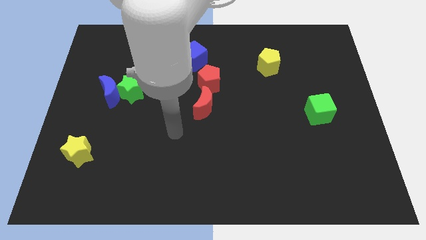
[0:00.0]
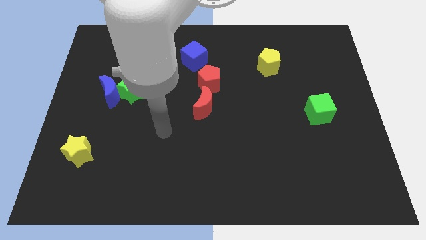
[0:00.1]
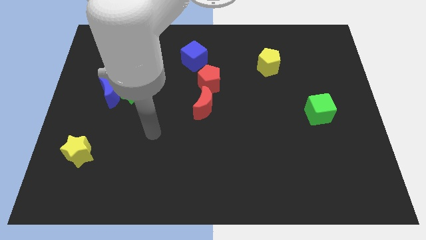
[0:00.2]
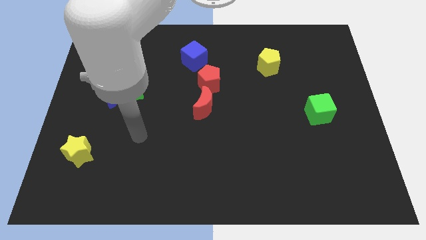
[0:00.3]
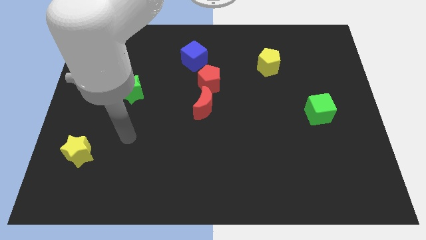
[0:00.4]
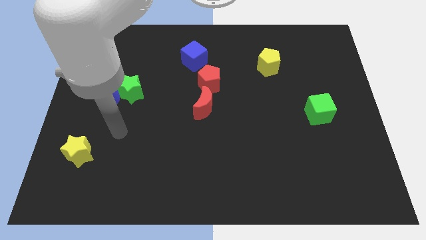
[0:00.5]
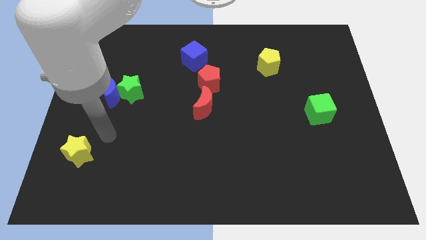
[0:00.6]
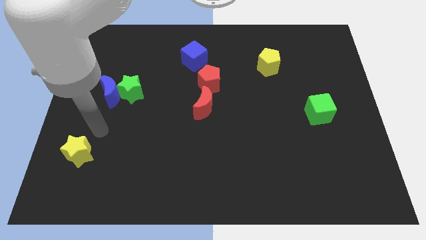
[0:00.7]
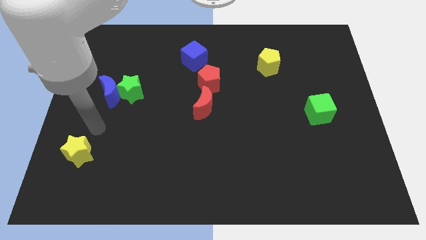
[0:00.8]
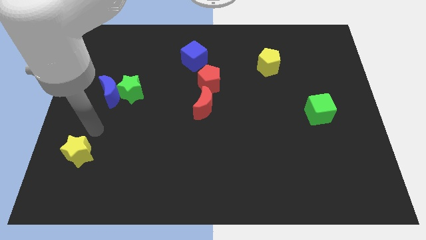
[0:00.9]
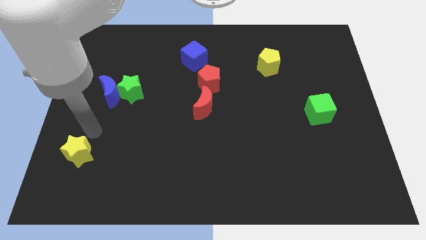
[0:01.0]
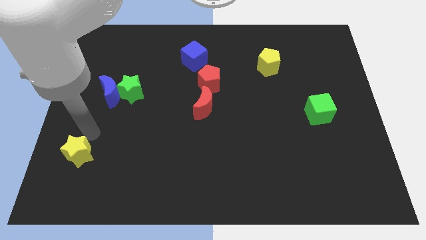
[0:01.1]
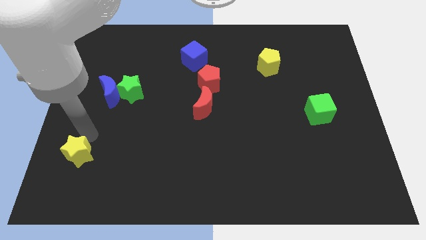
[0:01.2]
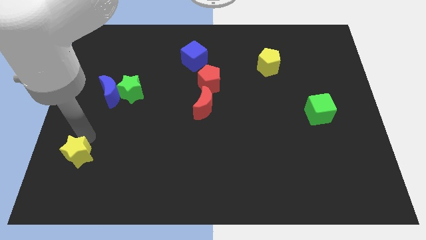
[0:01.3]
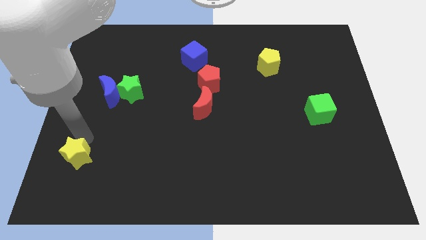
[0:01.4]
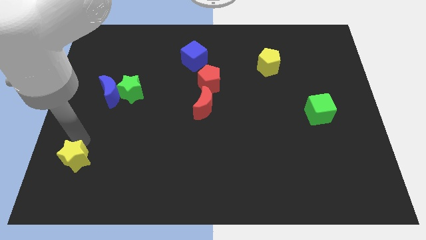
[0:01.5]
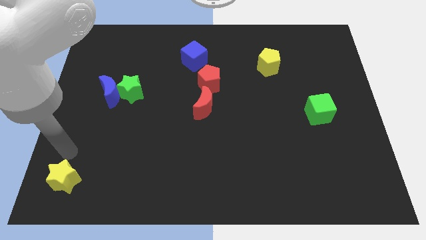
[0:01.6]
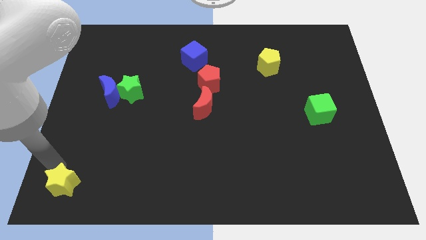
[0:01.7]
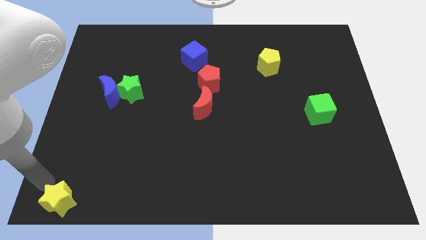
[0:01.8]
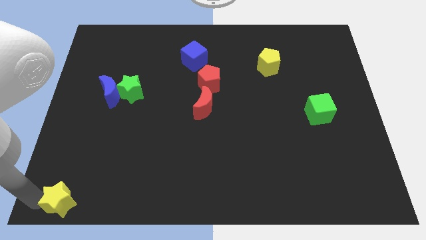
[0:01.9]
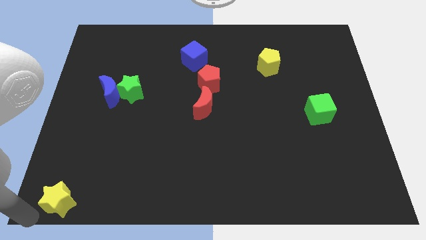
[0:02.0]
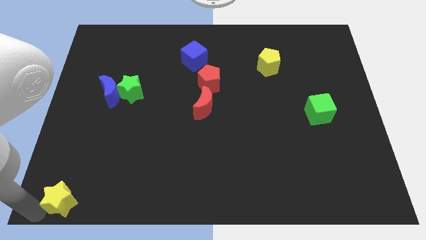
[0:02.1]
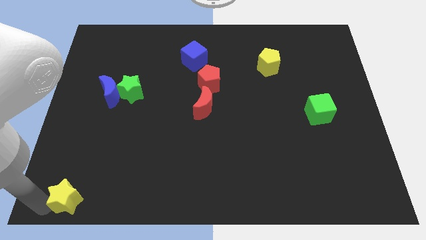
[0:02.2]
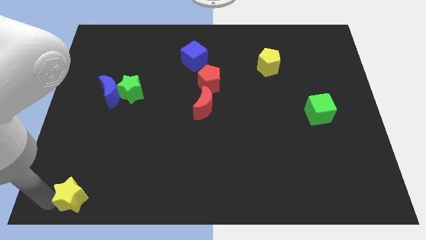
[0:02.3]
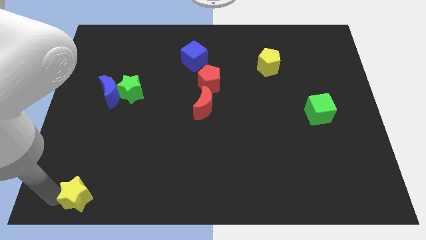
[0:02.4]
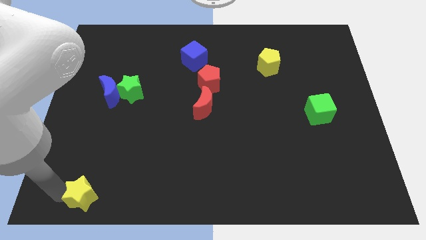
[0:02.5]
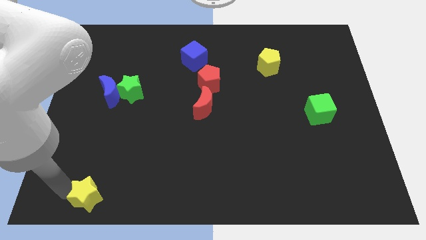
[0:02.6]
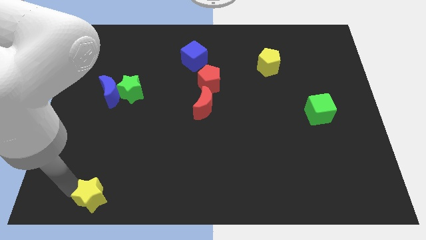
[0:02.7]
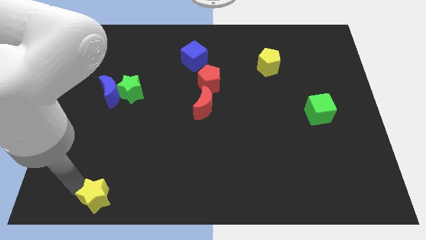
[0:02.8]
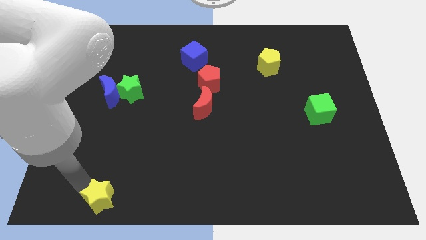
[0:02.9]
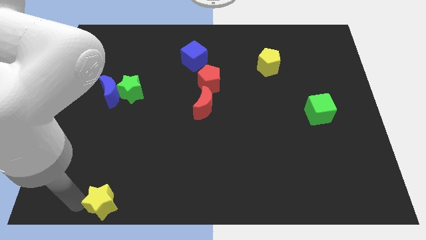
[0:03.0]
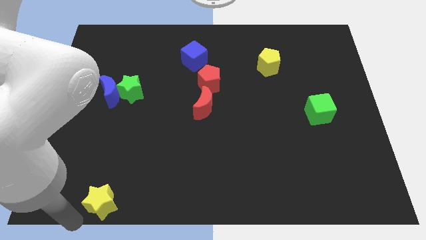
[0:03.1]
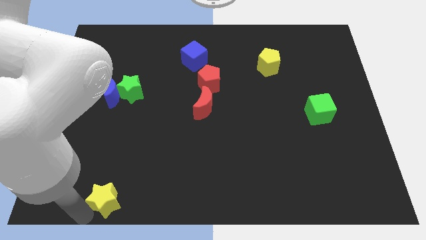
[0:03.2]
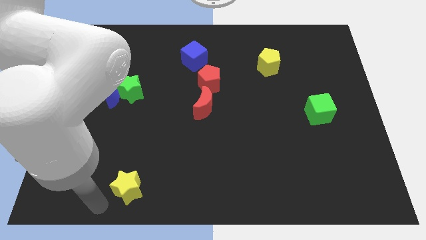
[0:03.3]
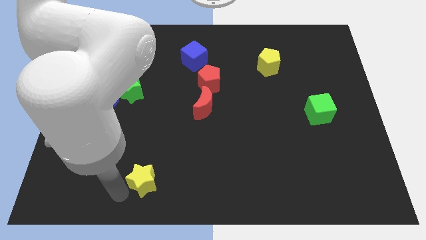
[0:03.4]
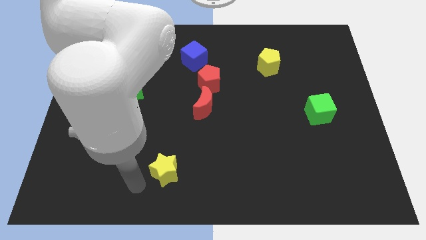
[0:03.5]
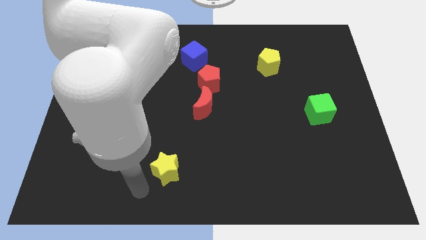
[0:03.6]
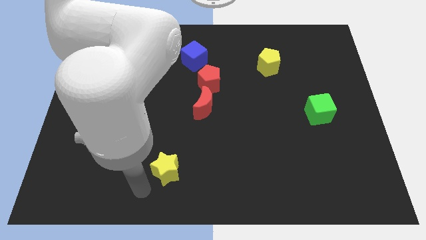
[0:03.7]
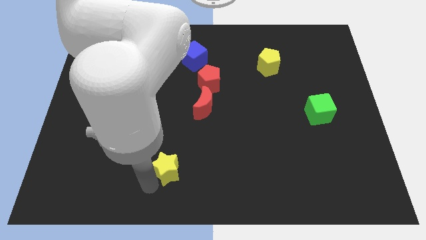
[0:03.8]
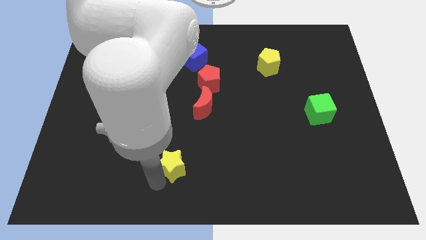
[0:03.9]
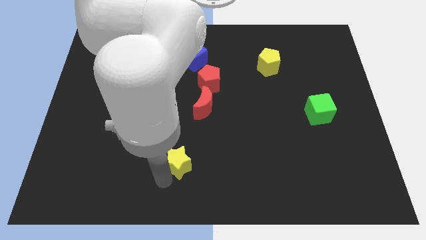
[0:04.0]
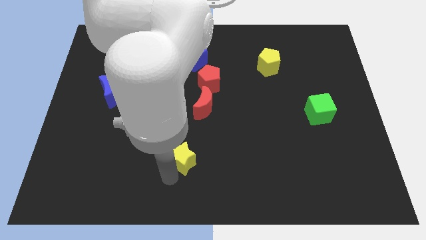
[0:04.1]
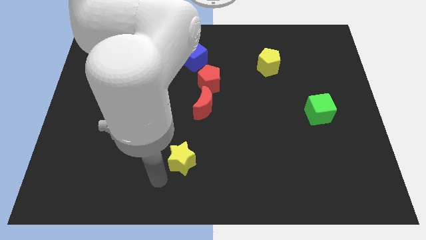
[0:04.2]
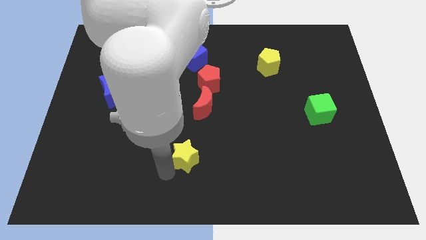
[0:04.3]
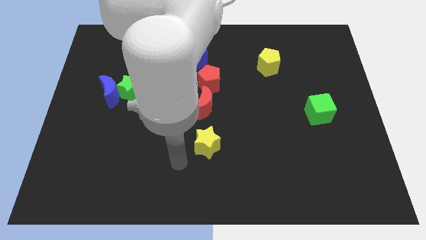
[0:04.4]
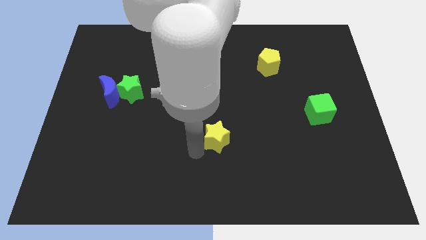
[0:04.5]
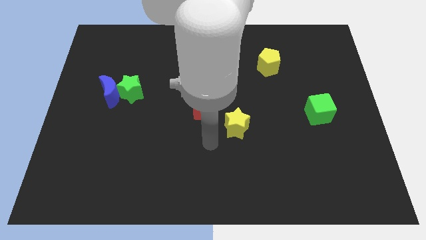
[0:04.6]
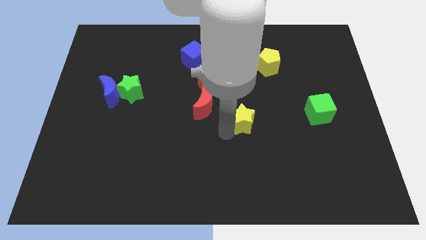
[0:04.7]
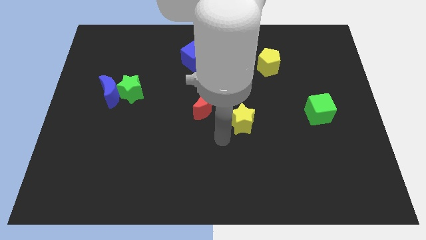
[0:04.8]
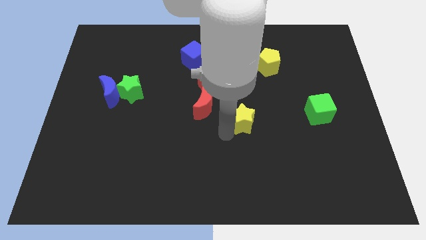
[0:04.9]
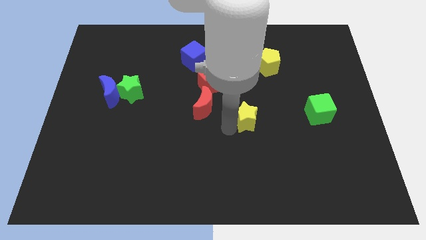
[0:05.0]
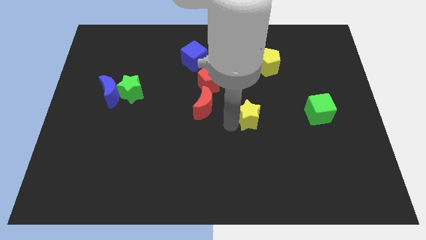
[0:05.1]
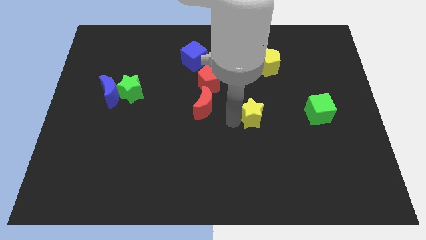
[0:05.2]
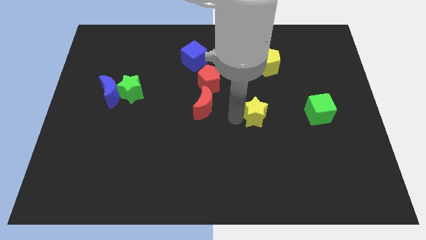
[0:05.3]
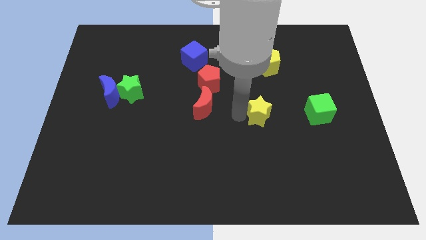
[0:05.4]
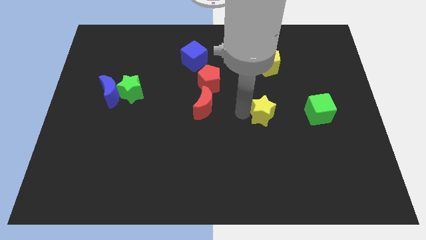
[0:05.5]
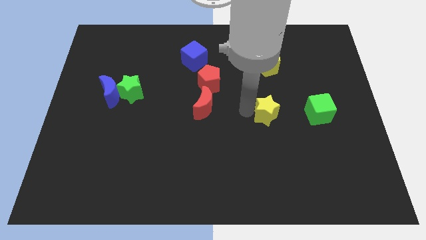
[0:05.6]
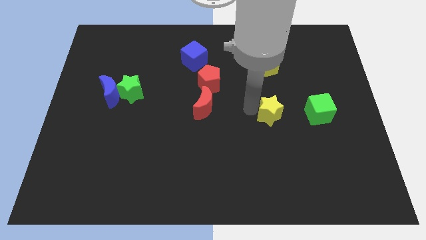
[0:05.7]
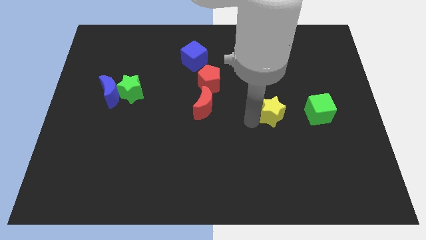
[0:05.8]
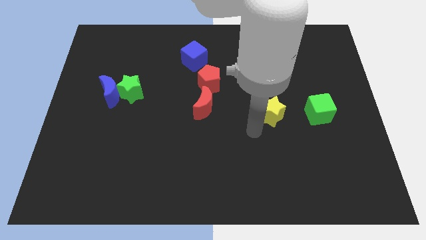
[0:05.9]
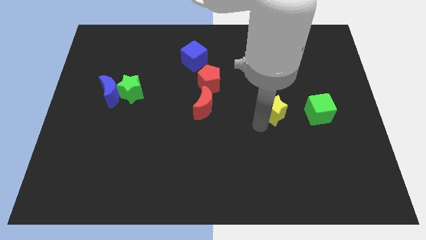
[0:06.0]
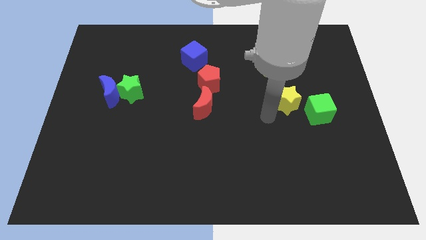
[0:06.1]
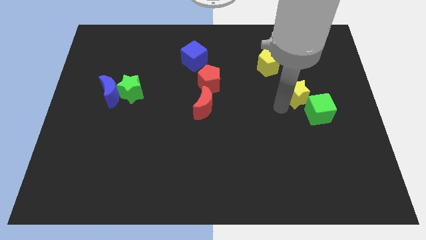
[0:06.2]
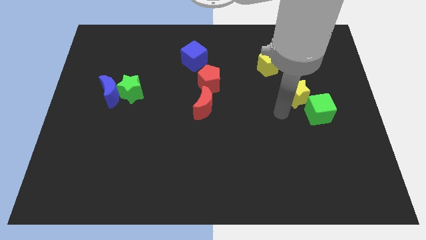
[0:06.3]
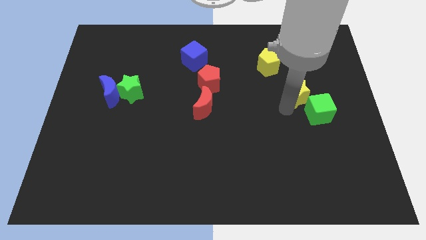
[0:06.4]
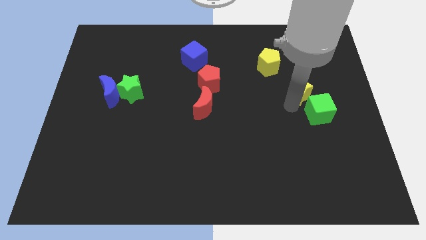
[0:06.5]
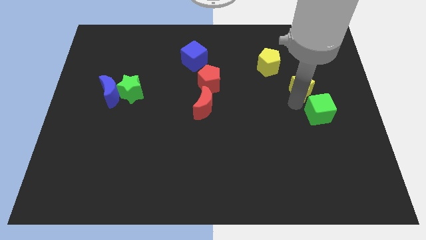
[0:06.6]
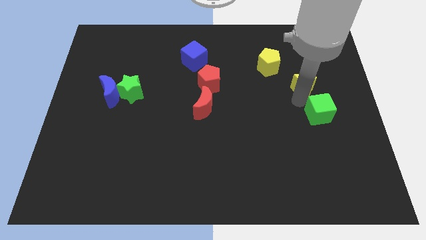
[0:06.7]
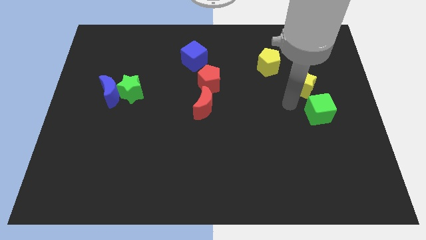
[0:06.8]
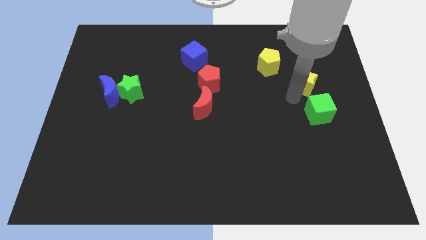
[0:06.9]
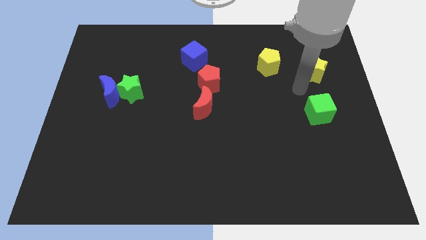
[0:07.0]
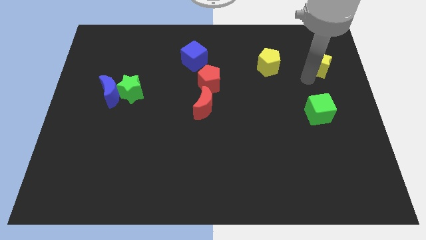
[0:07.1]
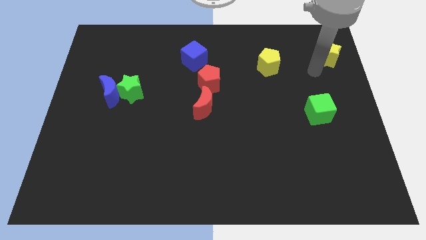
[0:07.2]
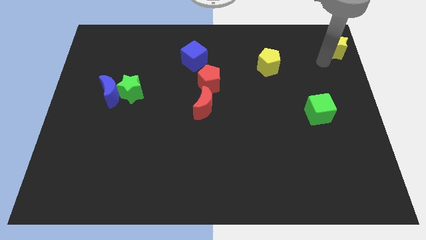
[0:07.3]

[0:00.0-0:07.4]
slide the yellow star to the top right corner
